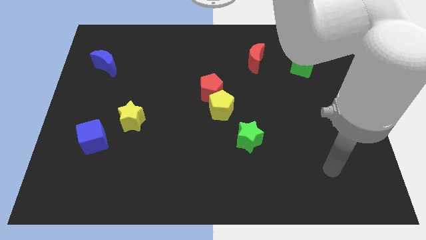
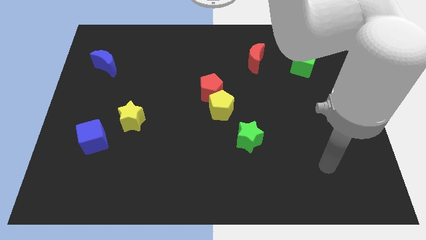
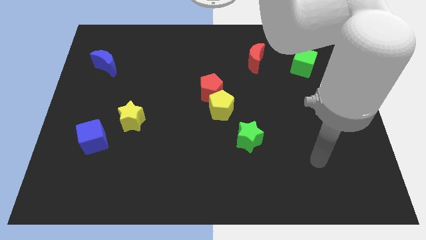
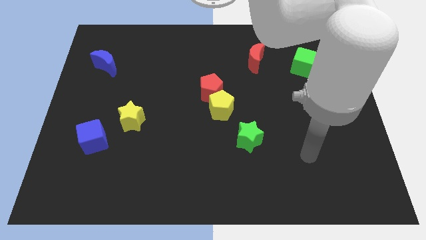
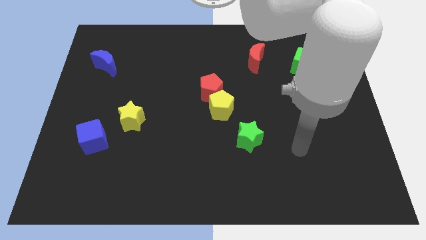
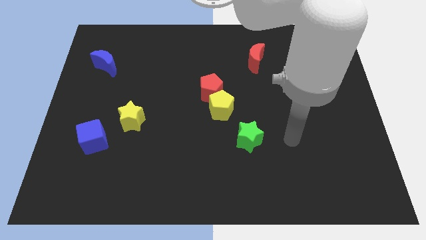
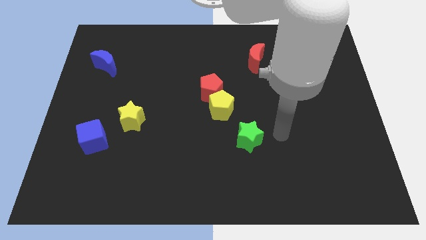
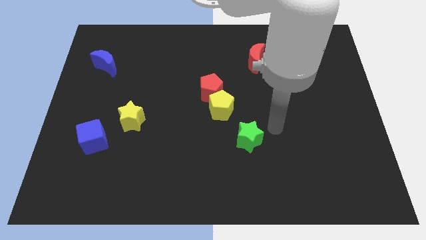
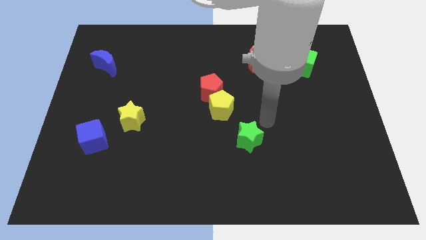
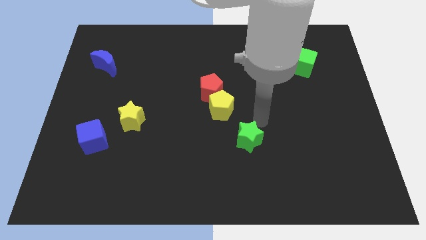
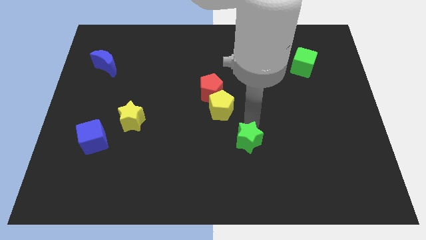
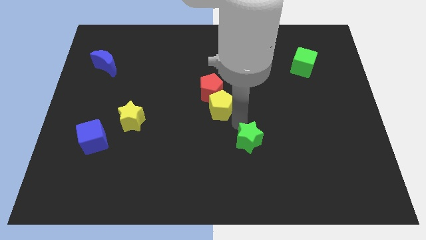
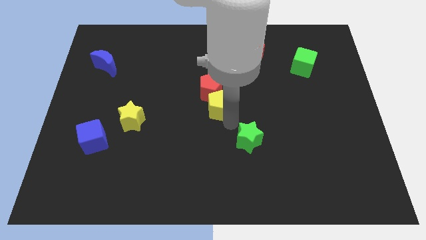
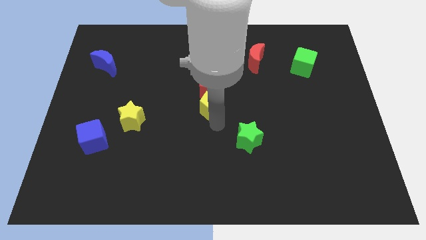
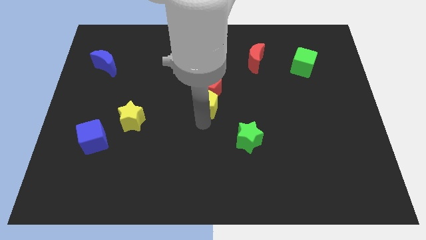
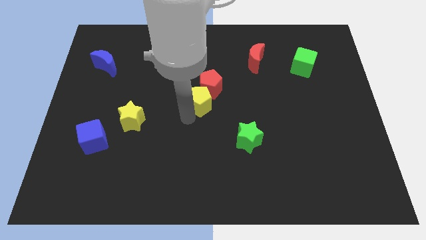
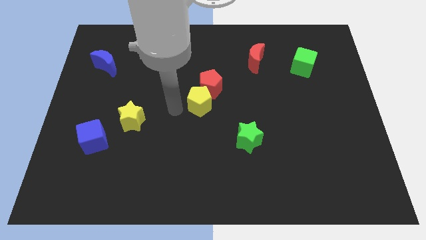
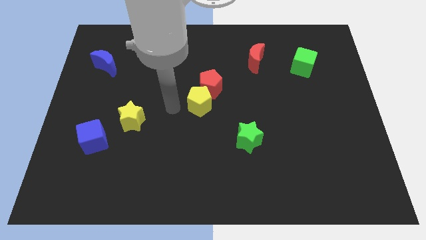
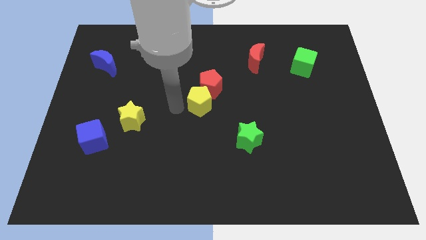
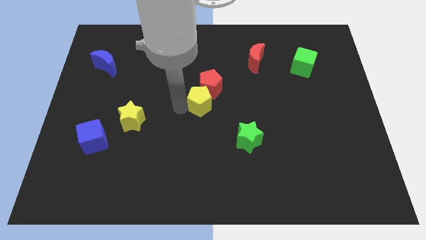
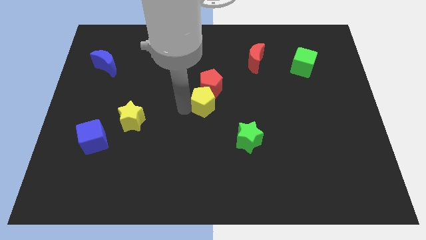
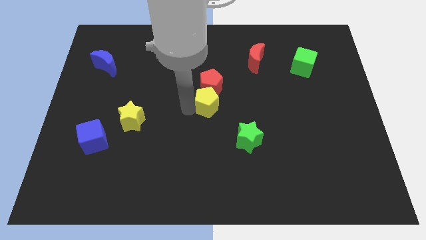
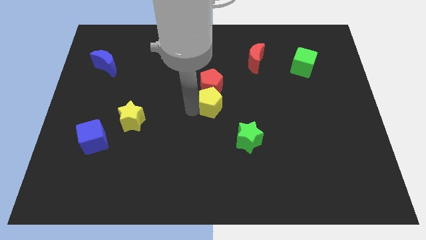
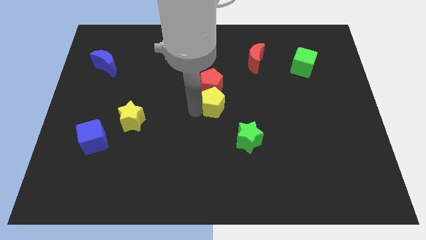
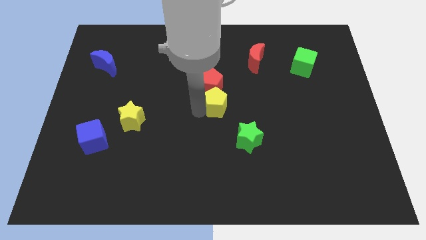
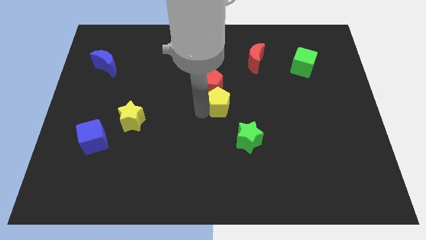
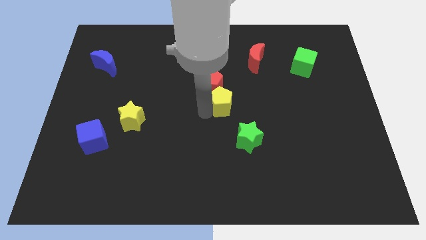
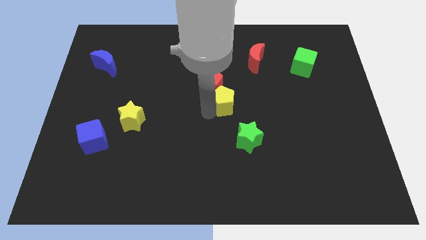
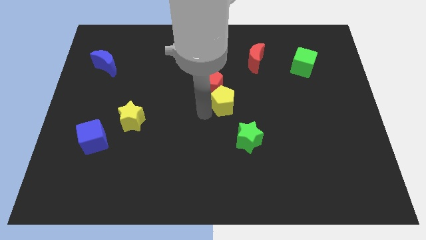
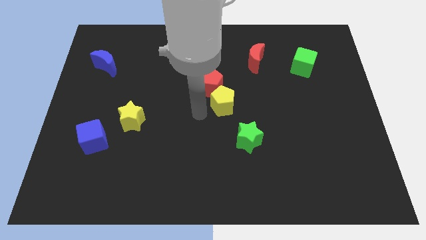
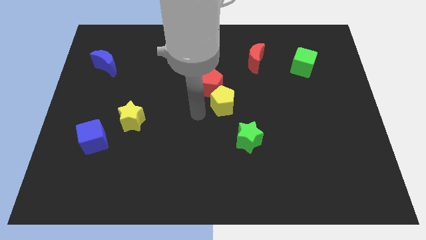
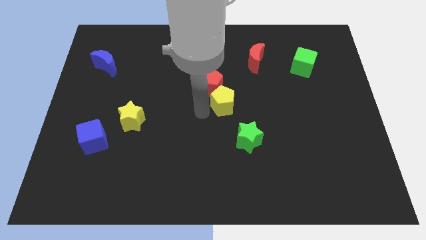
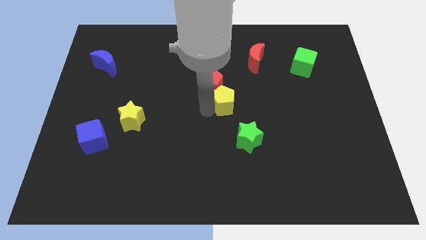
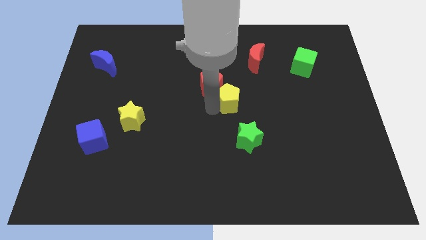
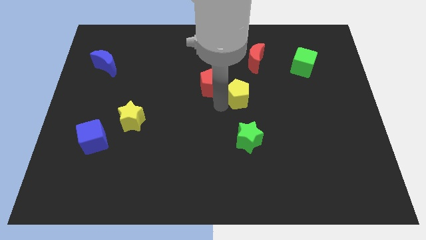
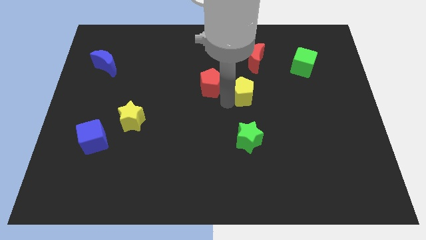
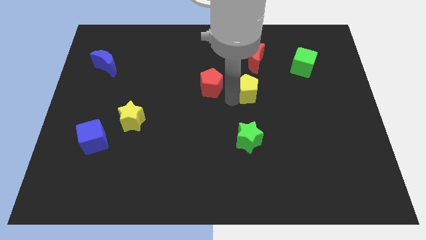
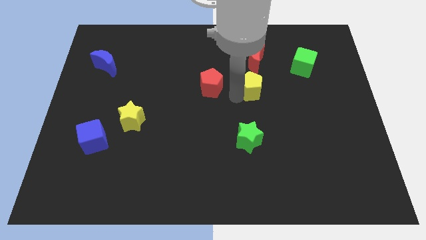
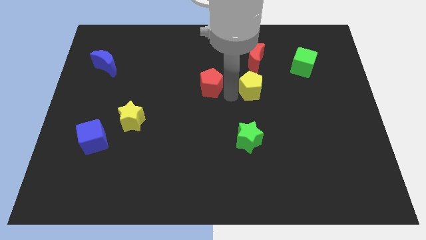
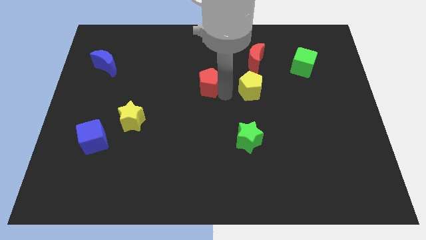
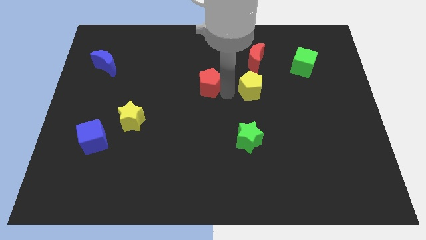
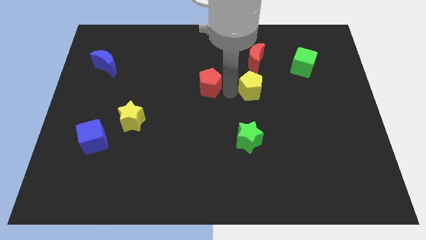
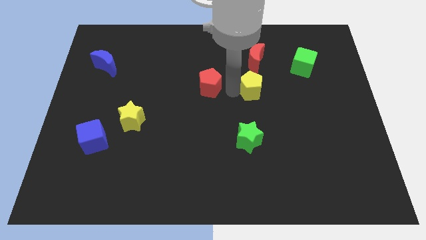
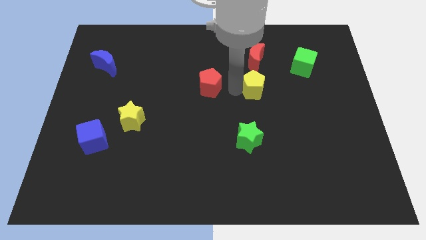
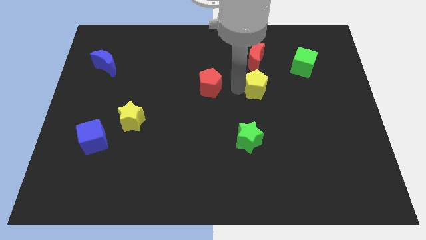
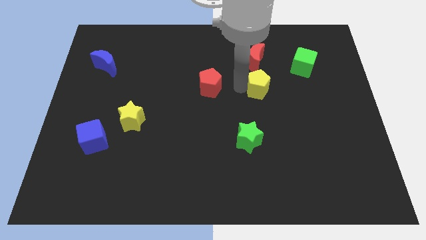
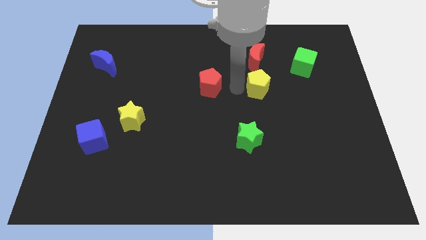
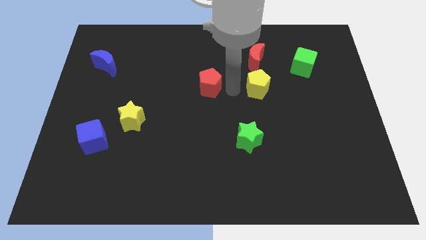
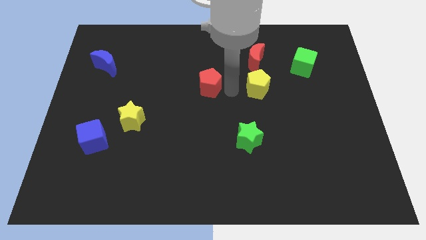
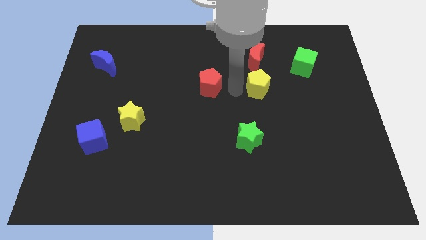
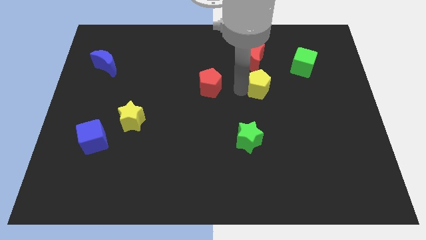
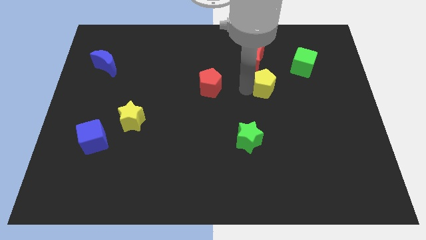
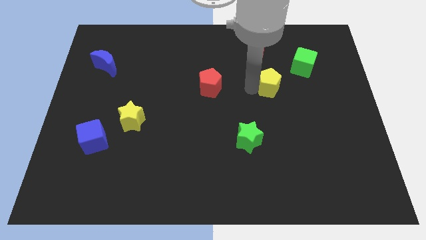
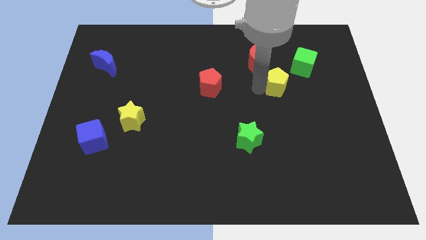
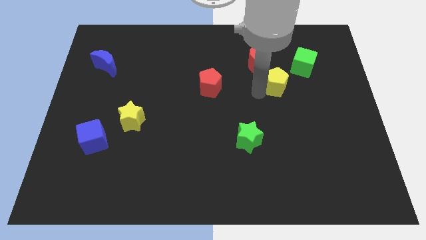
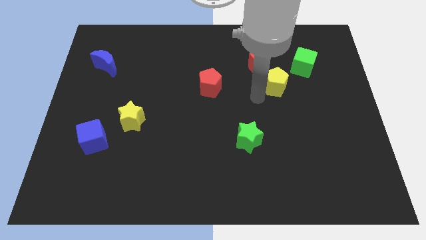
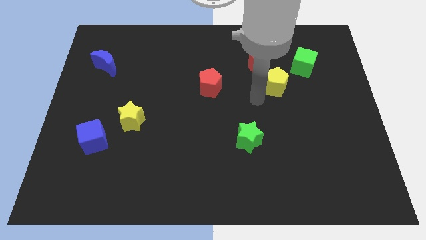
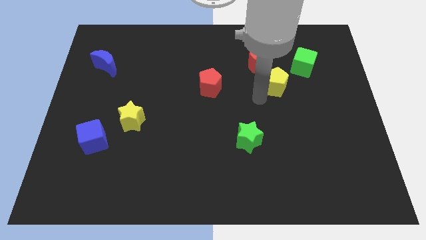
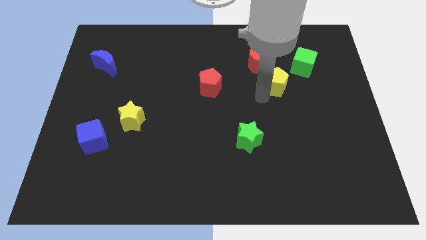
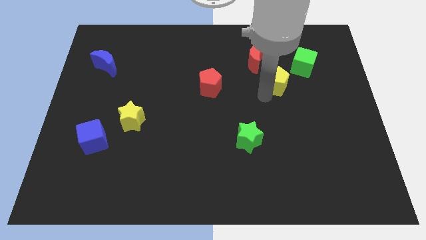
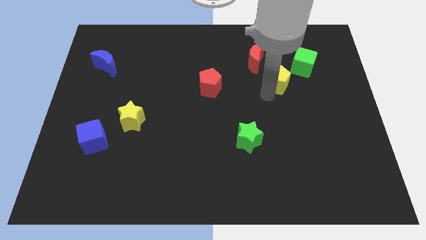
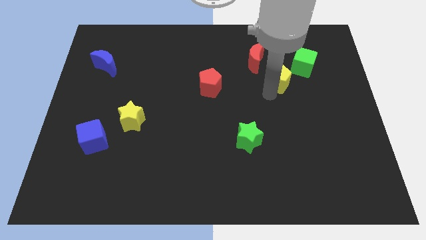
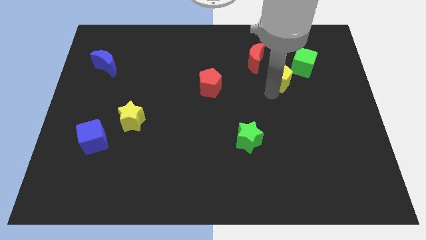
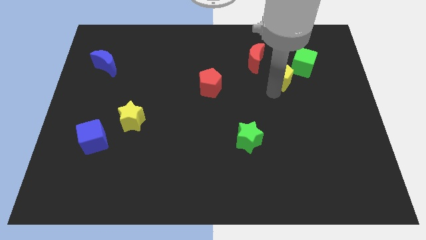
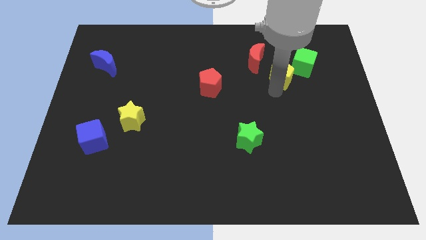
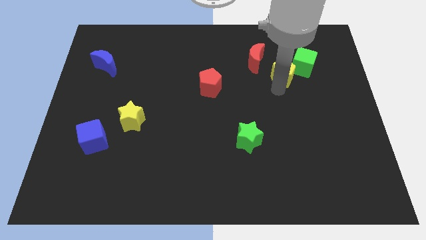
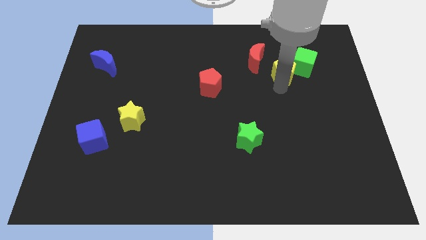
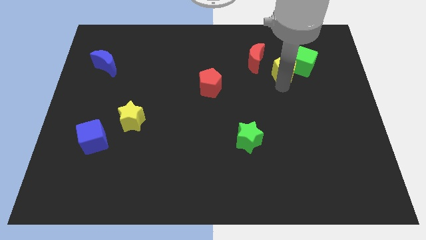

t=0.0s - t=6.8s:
move the yellow pentagon to the green cube

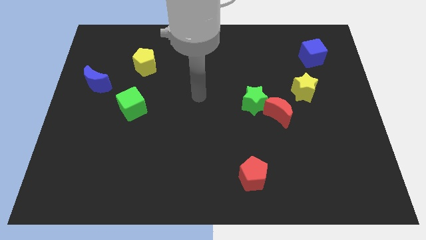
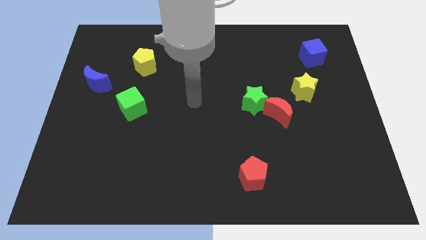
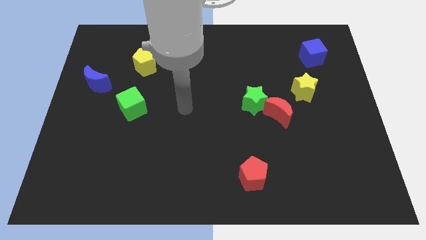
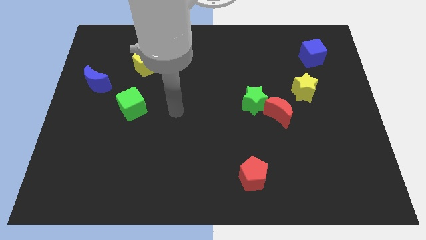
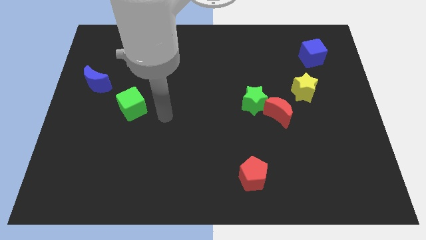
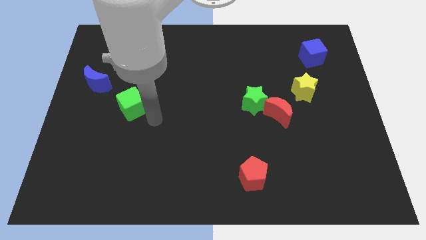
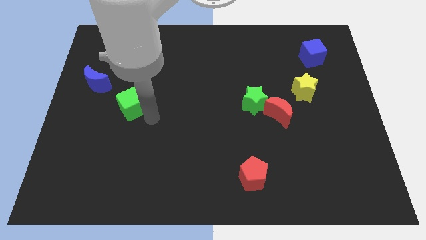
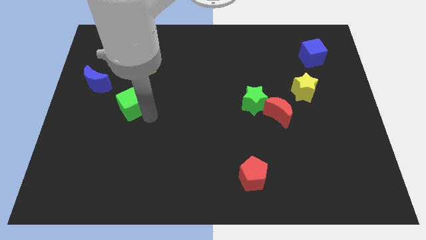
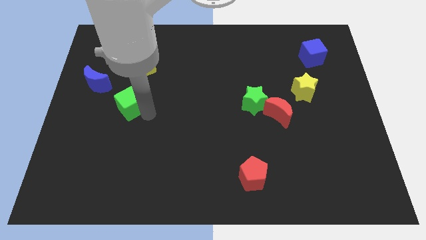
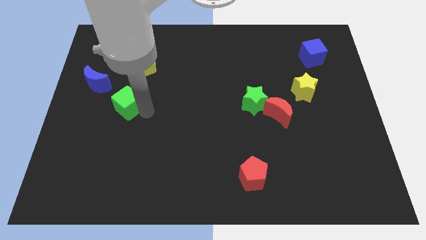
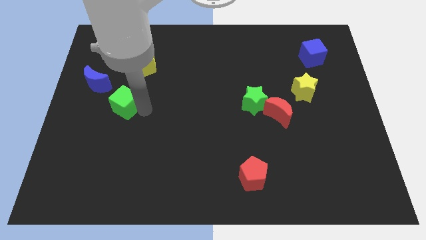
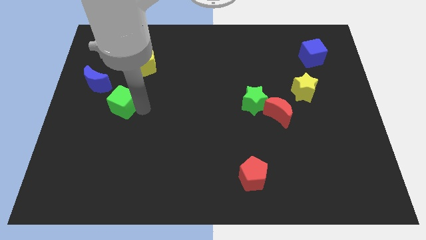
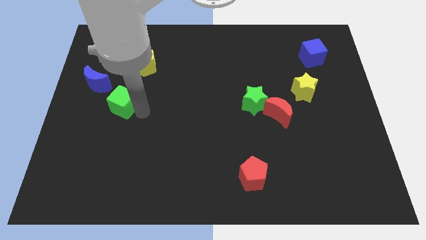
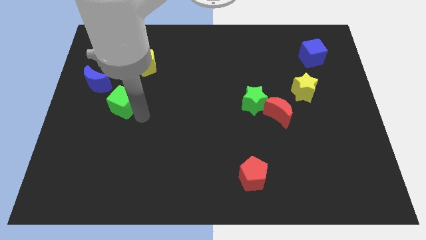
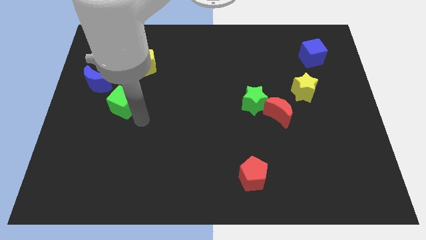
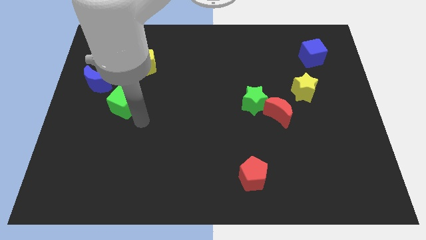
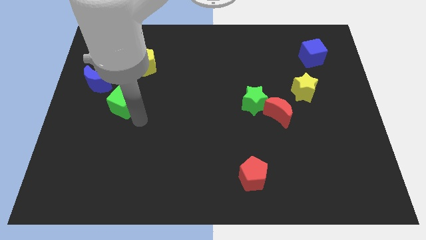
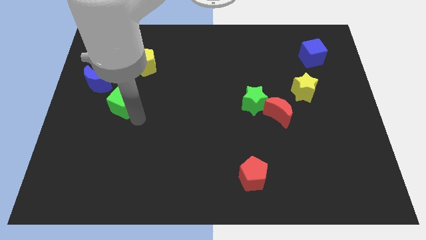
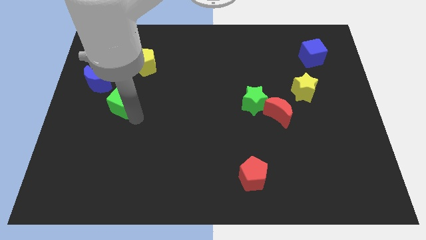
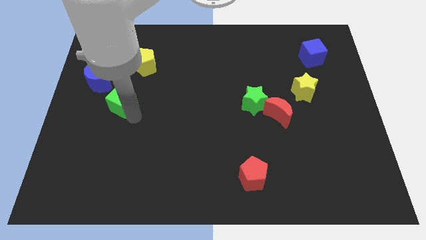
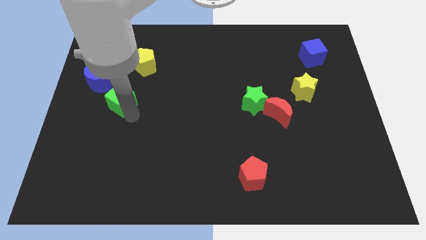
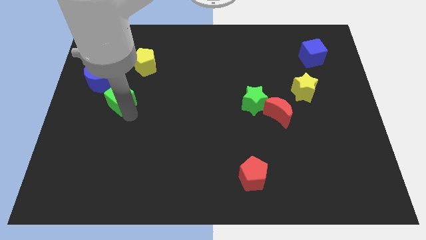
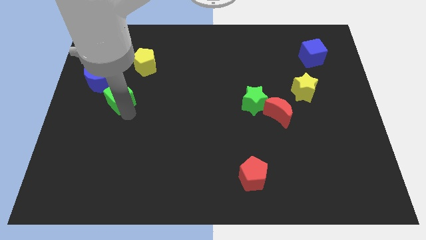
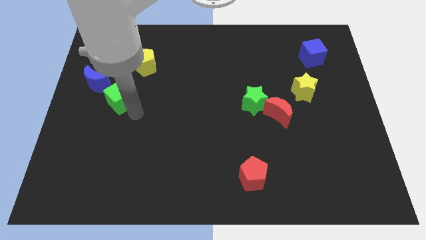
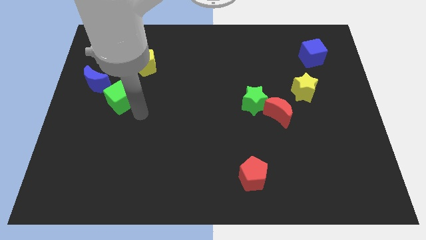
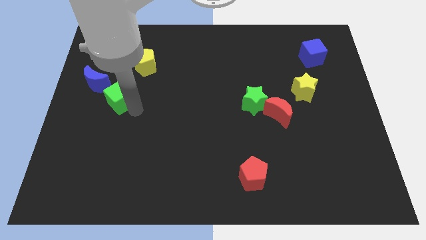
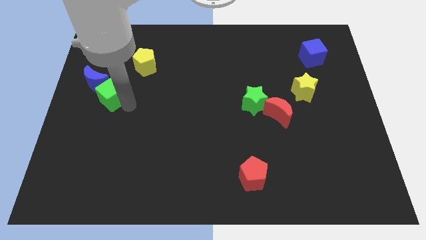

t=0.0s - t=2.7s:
put the green cube to the blue moon
